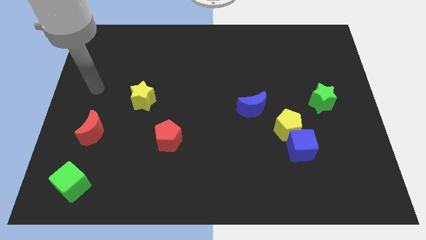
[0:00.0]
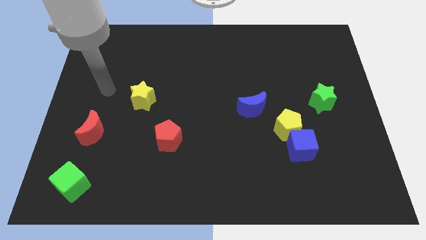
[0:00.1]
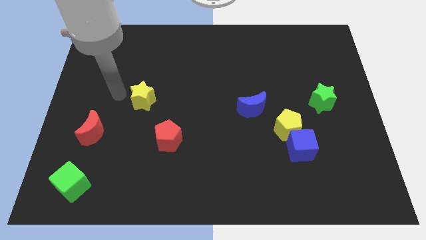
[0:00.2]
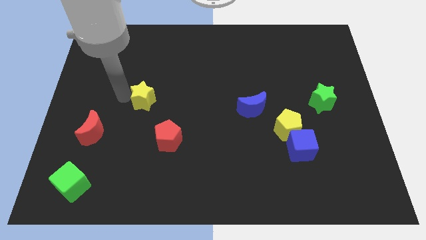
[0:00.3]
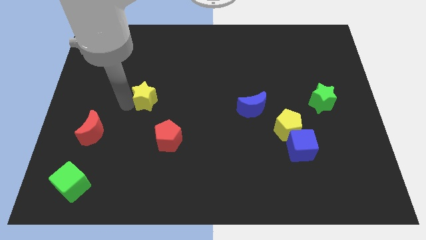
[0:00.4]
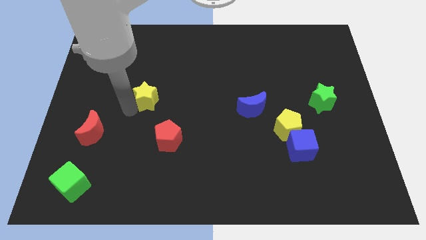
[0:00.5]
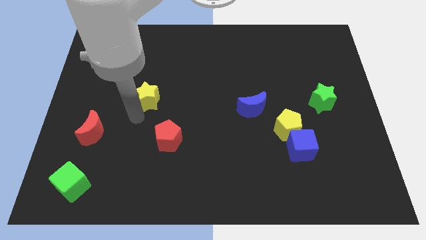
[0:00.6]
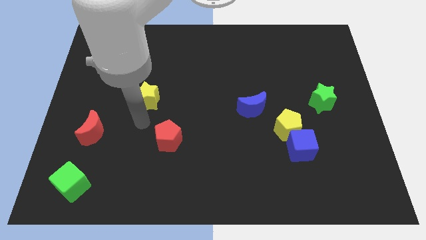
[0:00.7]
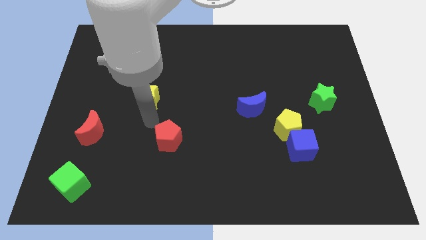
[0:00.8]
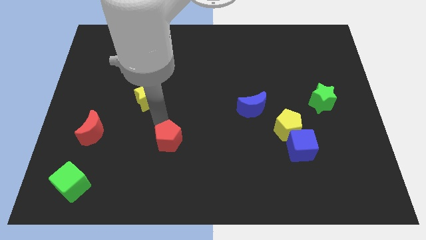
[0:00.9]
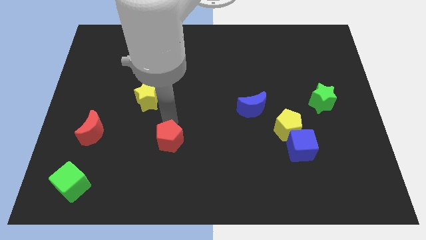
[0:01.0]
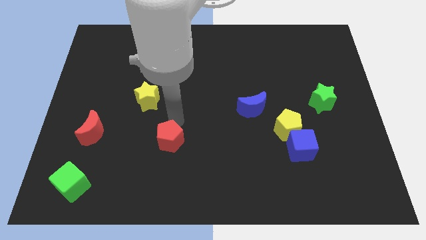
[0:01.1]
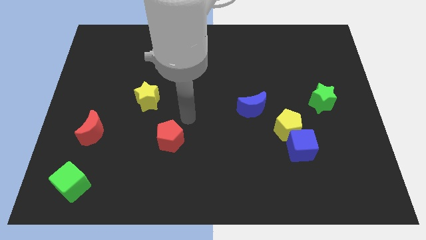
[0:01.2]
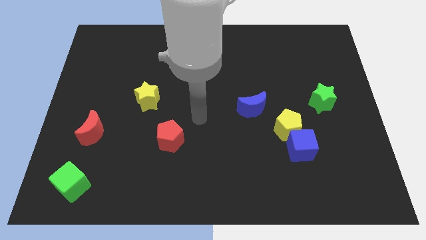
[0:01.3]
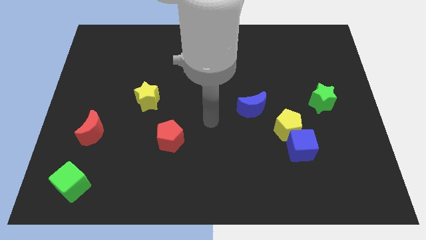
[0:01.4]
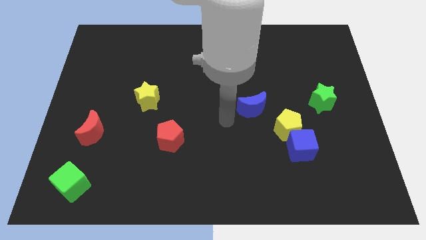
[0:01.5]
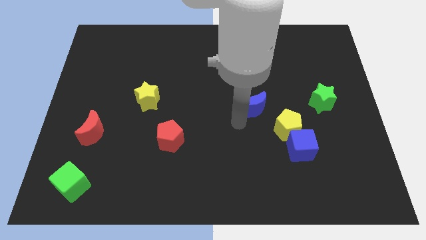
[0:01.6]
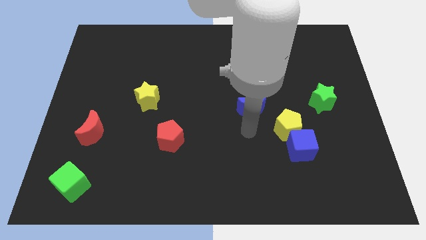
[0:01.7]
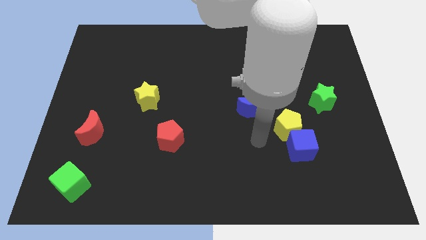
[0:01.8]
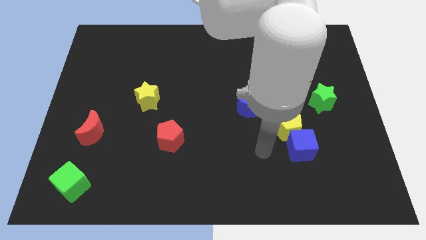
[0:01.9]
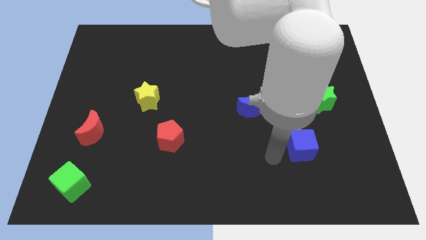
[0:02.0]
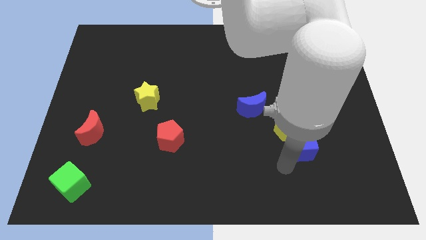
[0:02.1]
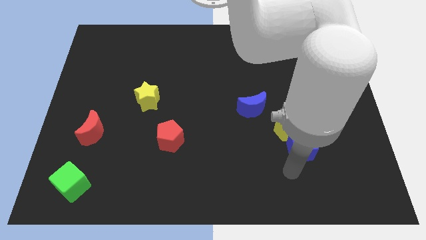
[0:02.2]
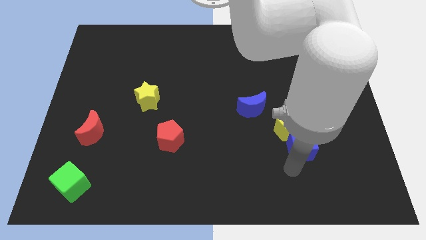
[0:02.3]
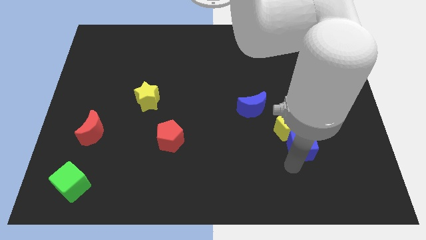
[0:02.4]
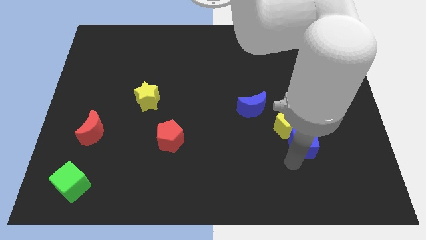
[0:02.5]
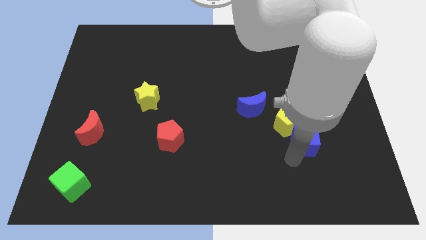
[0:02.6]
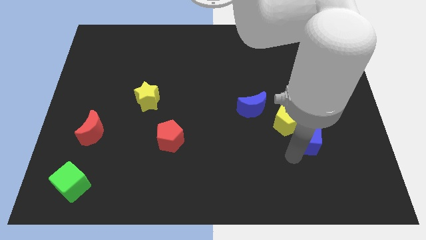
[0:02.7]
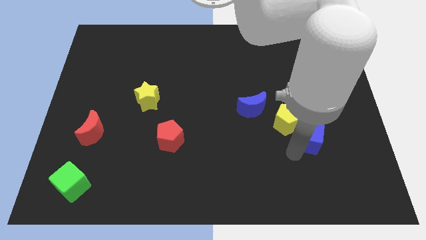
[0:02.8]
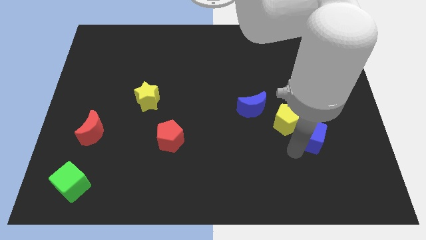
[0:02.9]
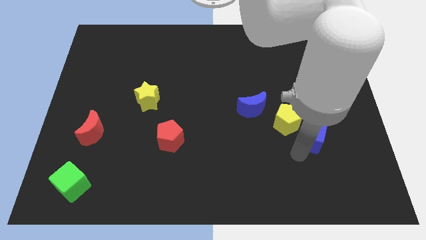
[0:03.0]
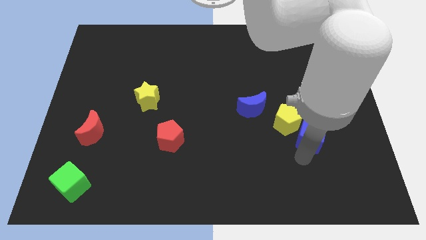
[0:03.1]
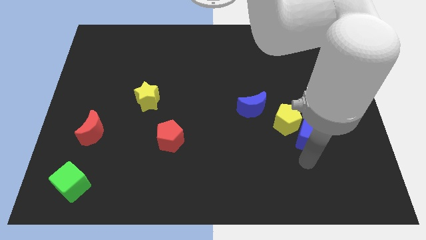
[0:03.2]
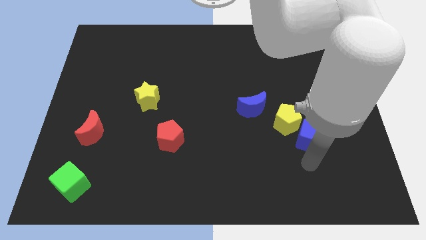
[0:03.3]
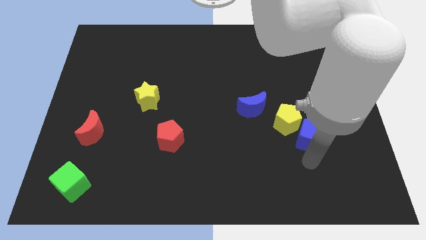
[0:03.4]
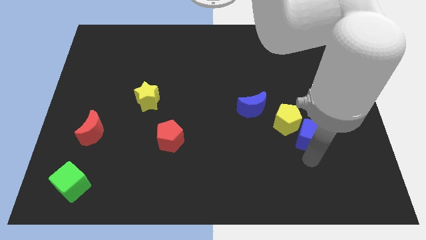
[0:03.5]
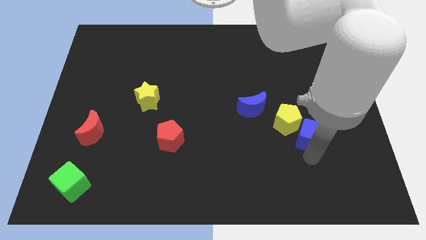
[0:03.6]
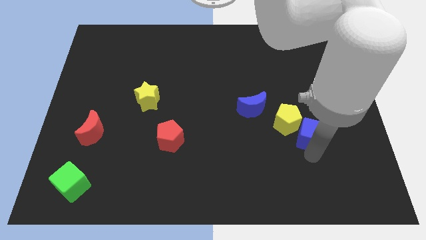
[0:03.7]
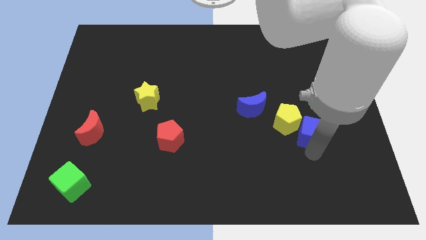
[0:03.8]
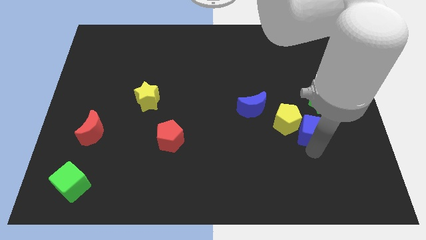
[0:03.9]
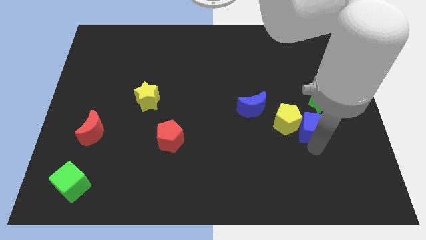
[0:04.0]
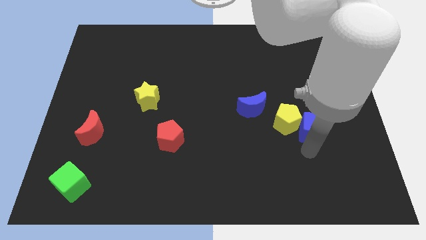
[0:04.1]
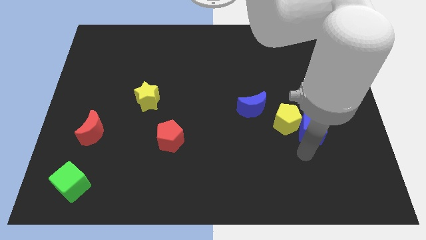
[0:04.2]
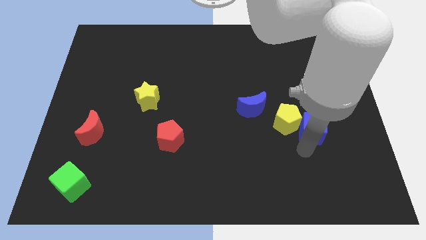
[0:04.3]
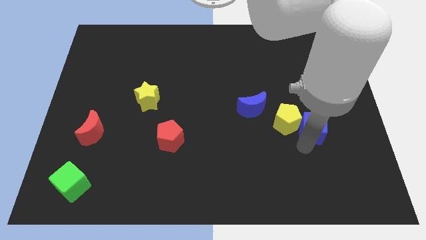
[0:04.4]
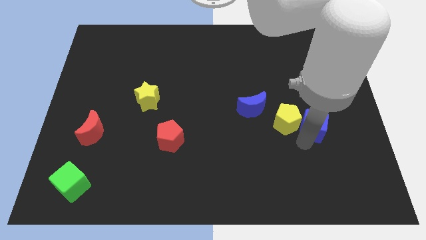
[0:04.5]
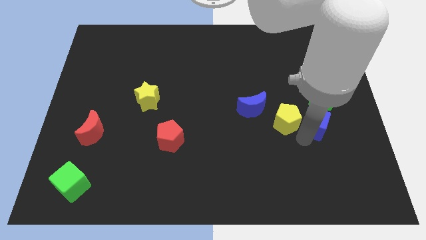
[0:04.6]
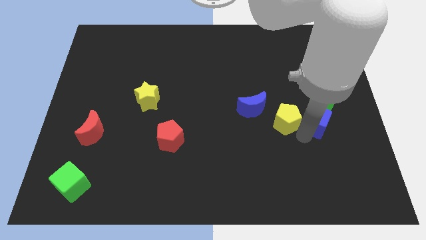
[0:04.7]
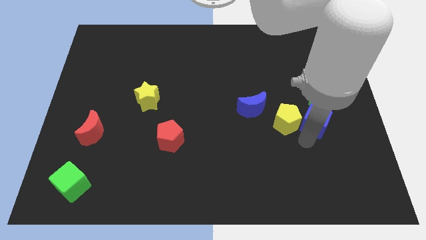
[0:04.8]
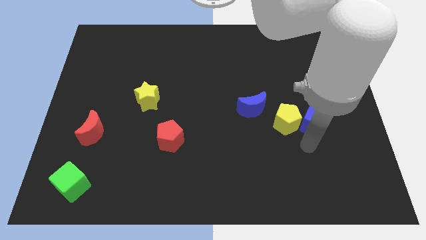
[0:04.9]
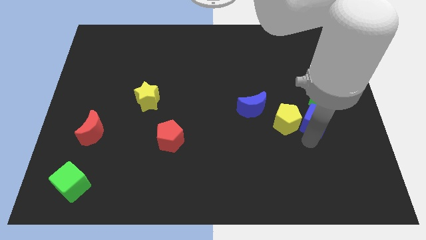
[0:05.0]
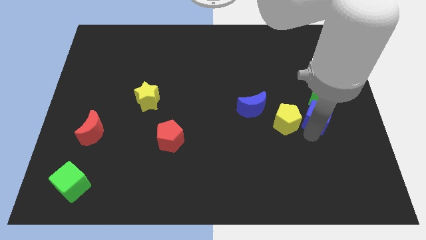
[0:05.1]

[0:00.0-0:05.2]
slide the blue cube towards the green star

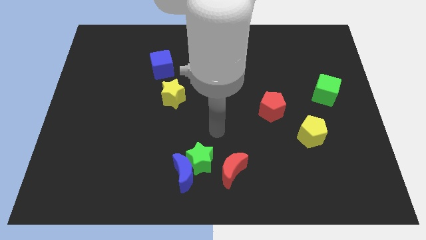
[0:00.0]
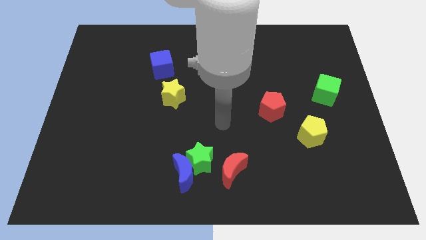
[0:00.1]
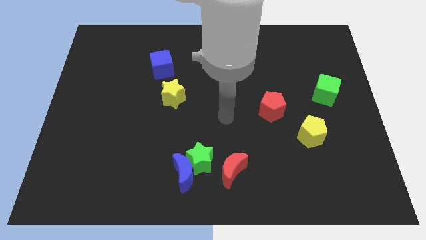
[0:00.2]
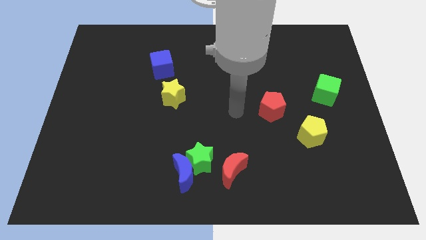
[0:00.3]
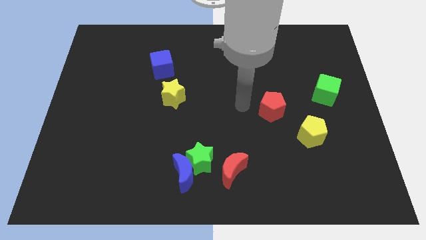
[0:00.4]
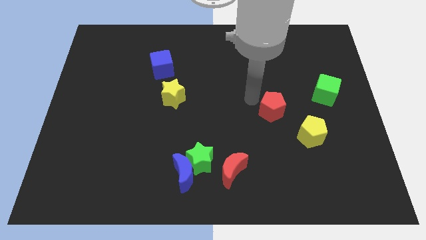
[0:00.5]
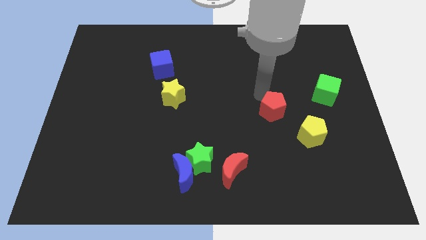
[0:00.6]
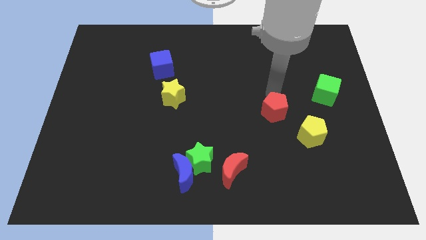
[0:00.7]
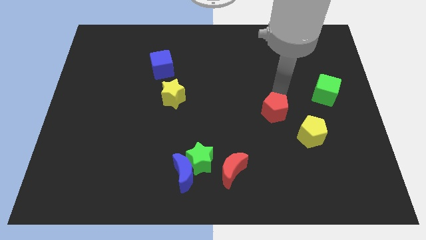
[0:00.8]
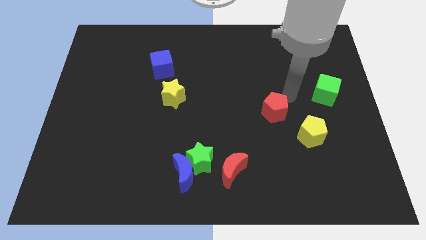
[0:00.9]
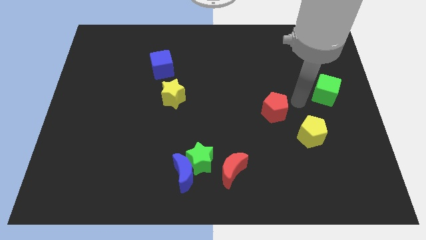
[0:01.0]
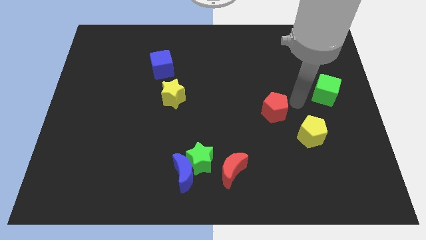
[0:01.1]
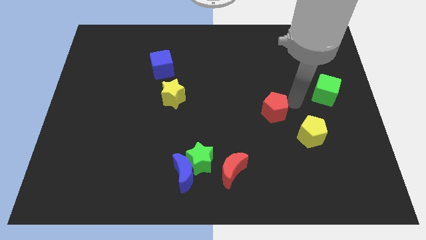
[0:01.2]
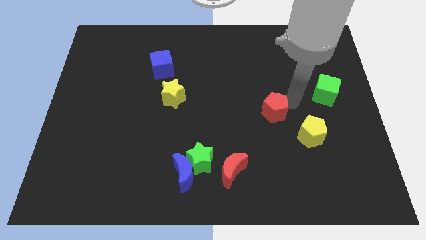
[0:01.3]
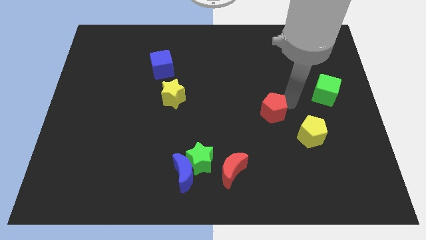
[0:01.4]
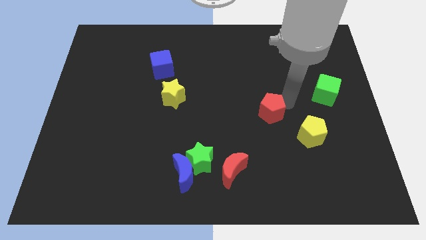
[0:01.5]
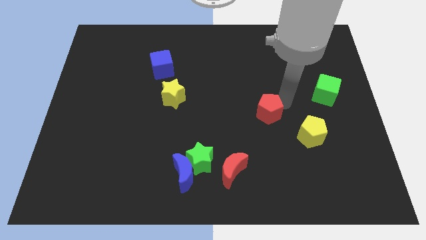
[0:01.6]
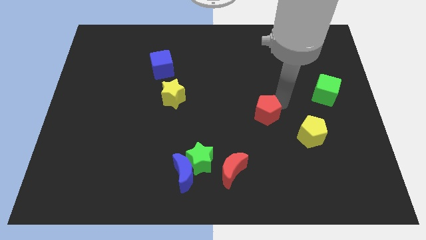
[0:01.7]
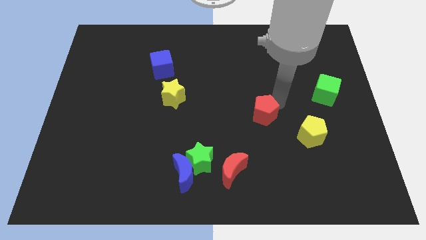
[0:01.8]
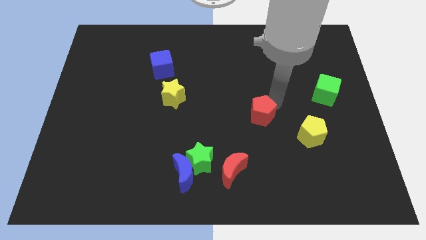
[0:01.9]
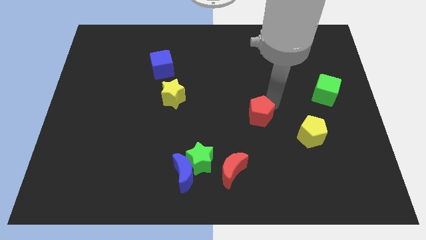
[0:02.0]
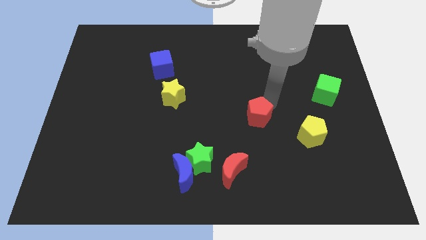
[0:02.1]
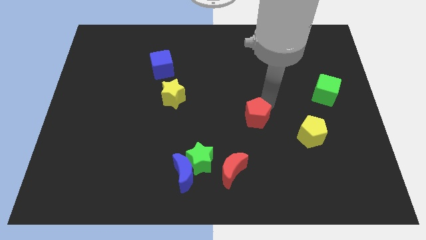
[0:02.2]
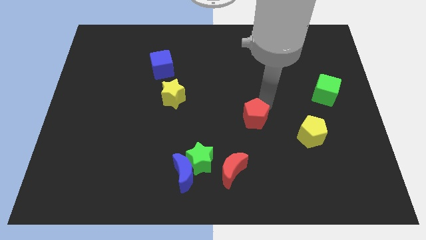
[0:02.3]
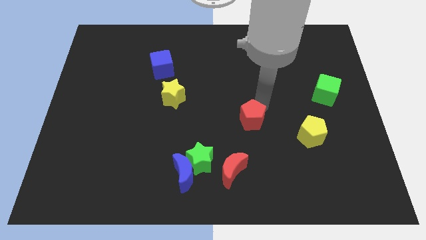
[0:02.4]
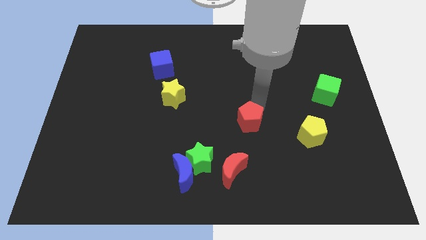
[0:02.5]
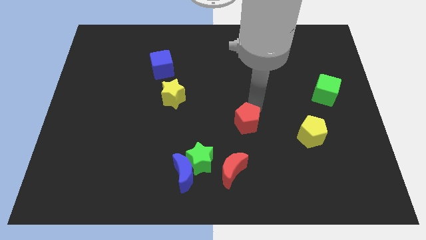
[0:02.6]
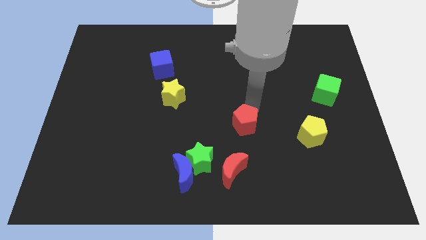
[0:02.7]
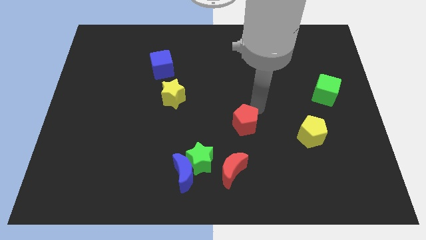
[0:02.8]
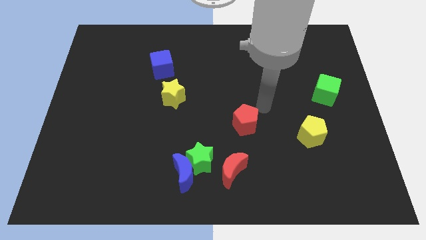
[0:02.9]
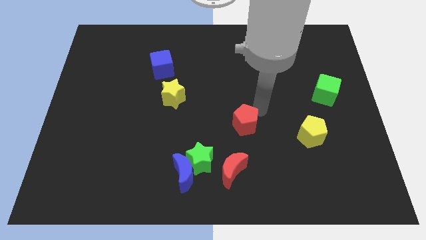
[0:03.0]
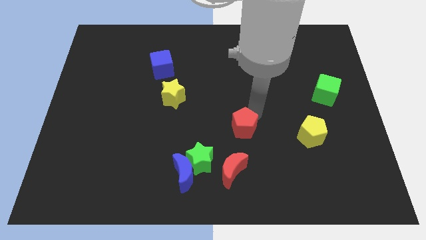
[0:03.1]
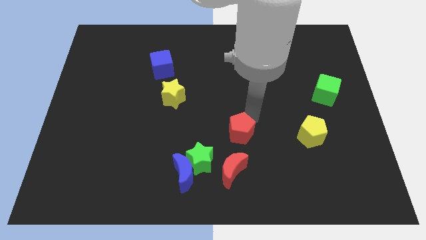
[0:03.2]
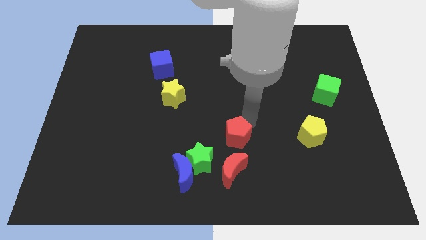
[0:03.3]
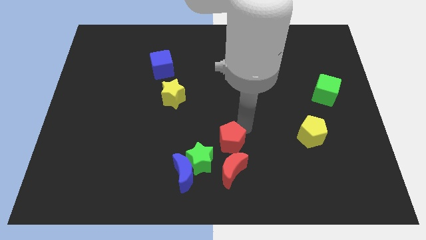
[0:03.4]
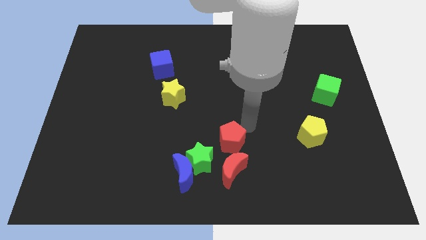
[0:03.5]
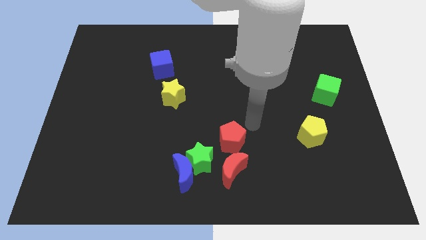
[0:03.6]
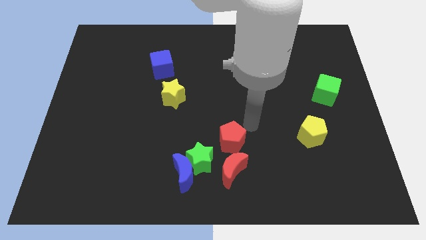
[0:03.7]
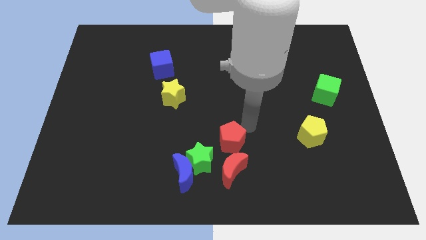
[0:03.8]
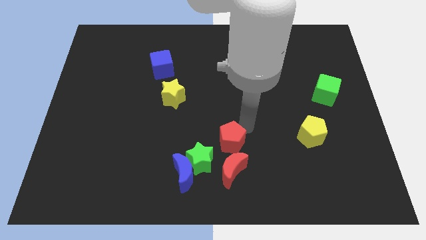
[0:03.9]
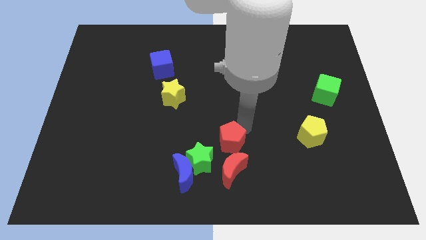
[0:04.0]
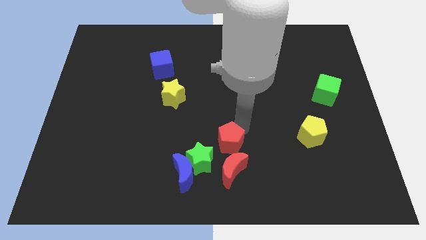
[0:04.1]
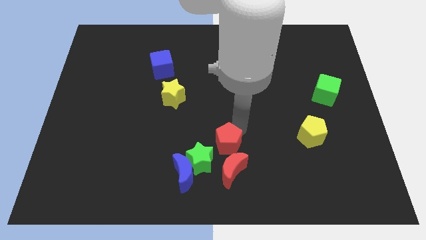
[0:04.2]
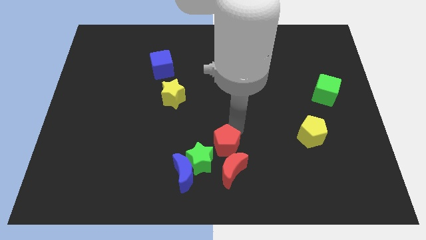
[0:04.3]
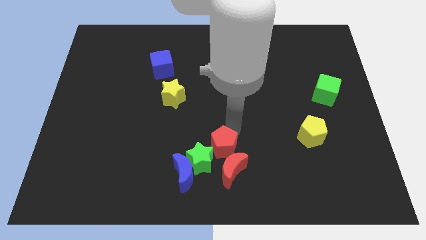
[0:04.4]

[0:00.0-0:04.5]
push the red pentagon next to the green star
